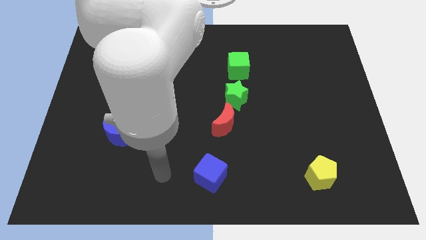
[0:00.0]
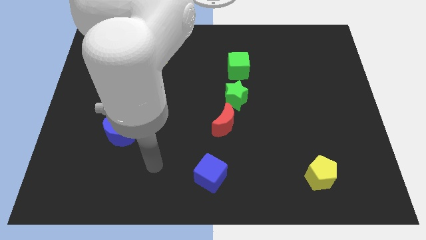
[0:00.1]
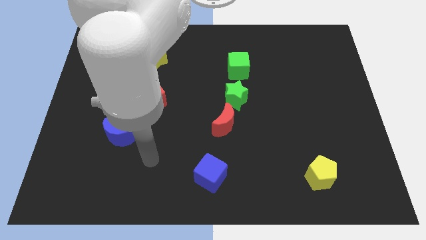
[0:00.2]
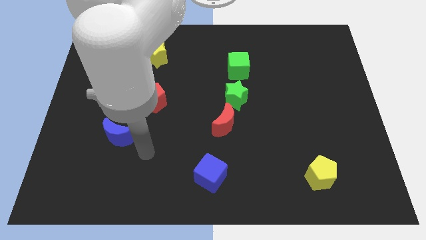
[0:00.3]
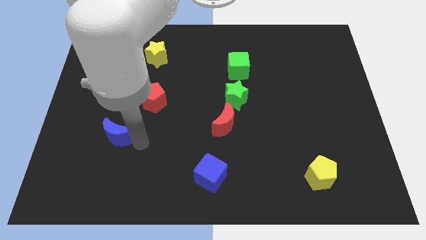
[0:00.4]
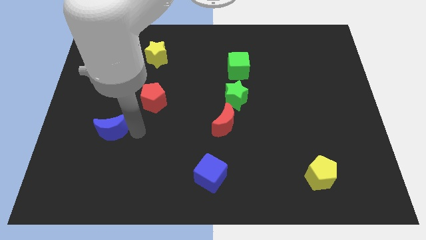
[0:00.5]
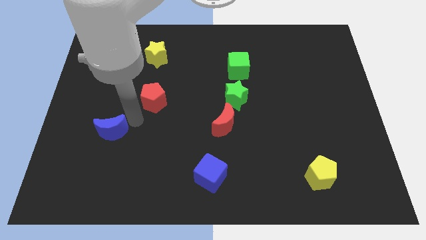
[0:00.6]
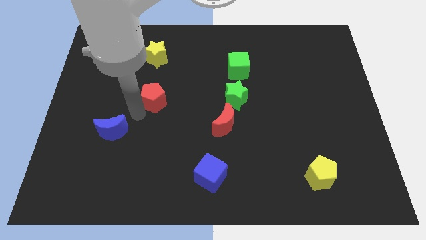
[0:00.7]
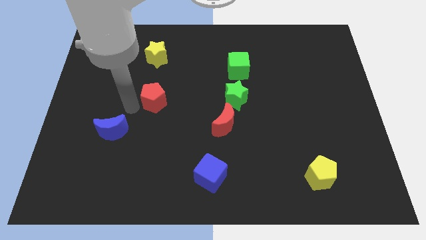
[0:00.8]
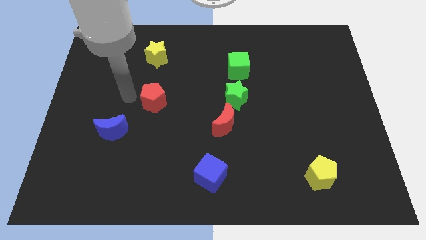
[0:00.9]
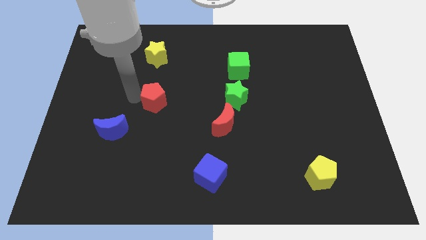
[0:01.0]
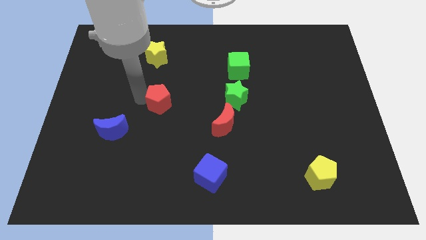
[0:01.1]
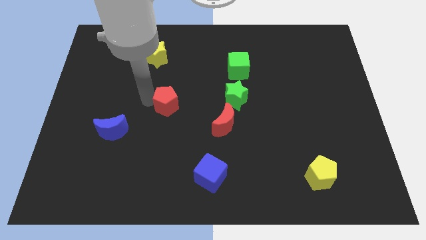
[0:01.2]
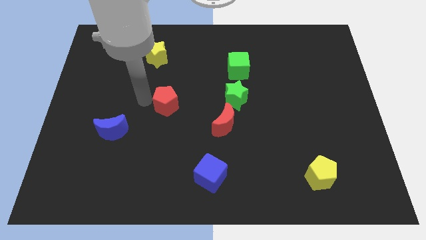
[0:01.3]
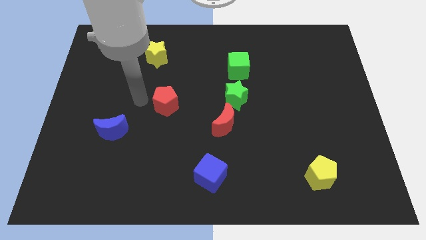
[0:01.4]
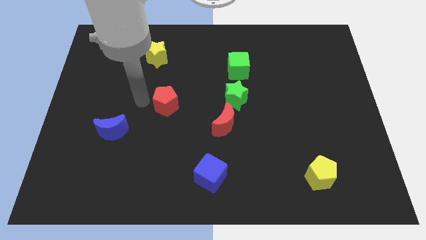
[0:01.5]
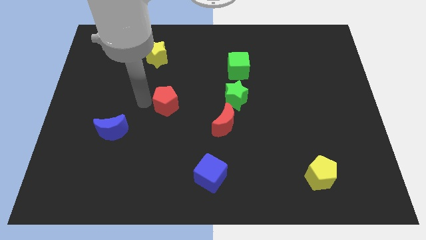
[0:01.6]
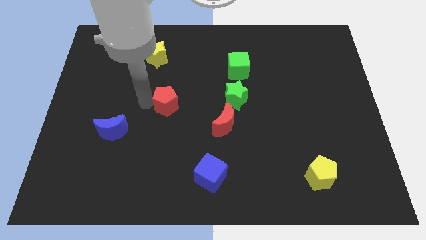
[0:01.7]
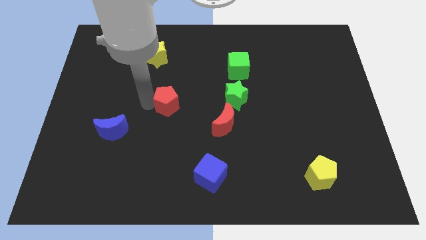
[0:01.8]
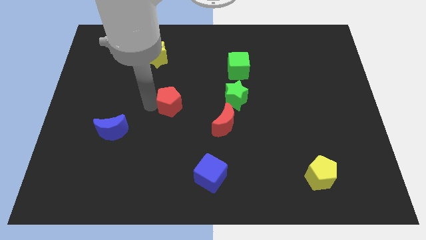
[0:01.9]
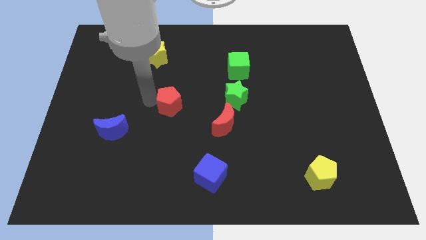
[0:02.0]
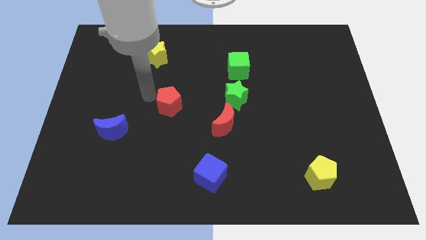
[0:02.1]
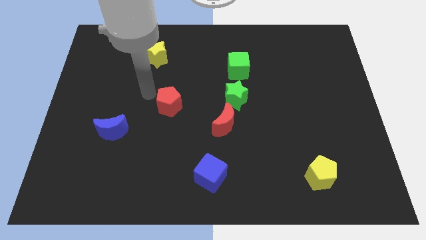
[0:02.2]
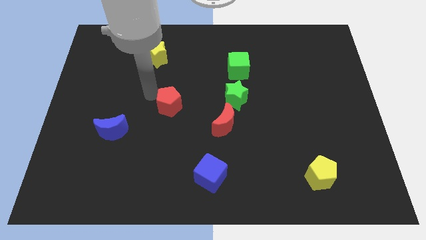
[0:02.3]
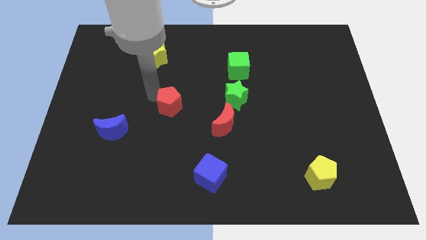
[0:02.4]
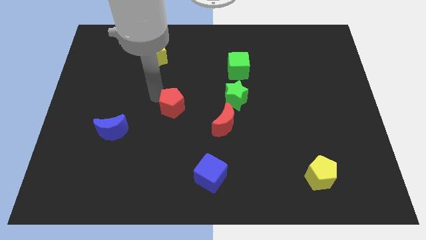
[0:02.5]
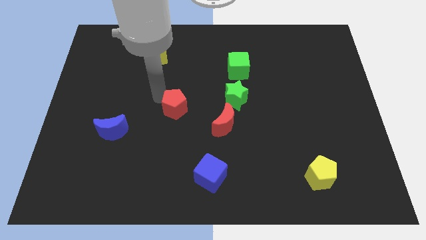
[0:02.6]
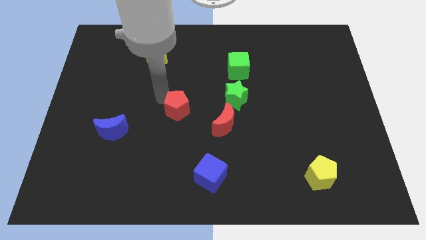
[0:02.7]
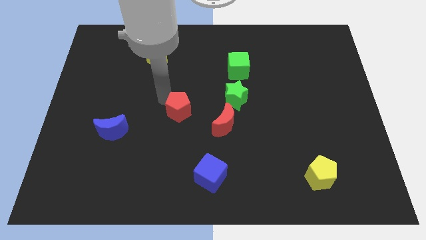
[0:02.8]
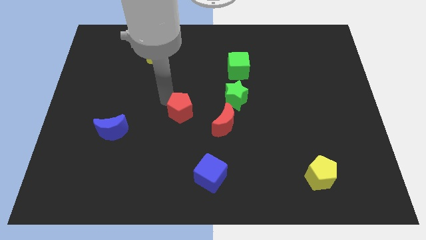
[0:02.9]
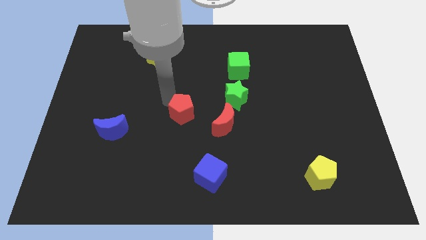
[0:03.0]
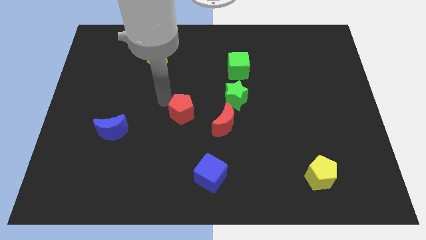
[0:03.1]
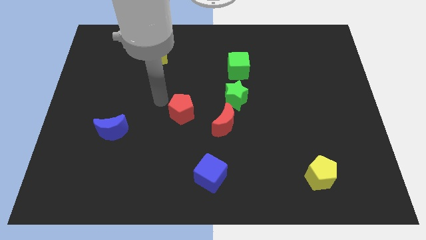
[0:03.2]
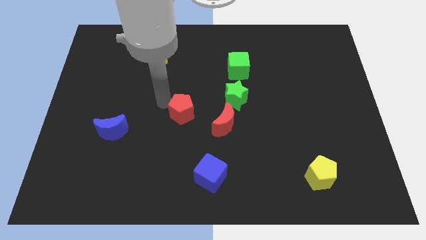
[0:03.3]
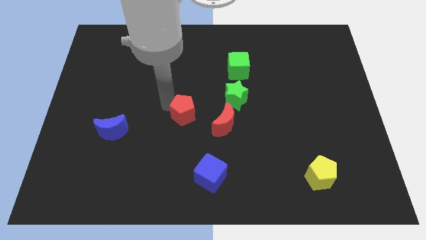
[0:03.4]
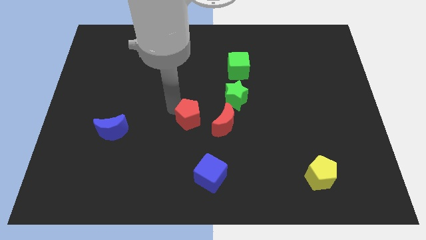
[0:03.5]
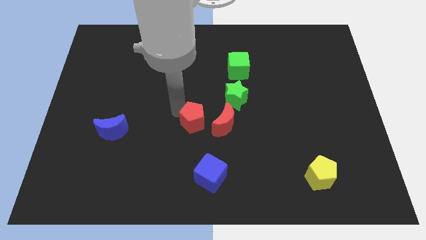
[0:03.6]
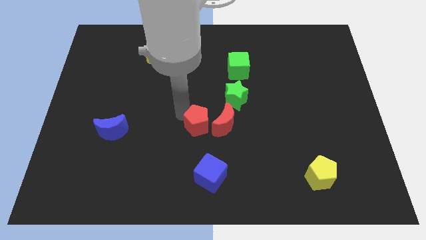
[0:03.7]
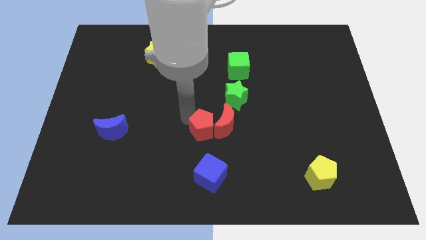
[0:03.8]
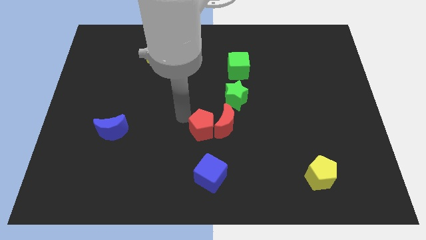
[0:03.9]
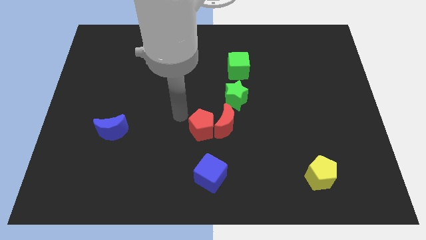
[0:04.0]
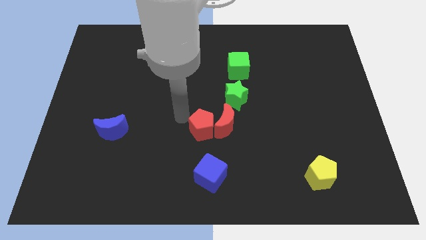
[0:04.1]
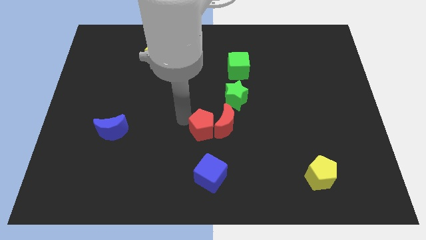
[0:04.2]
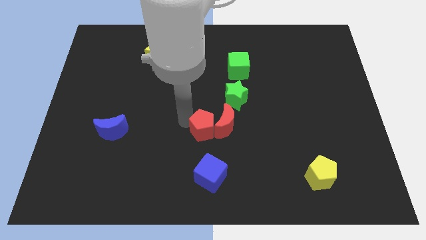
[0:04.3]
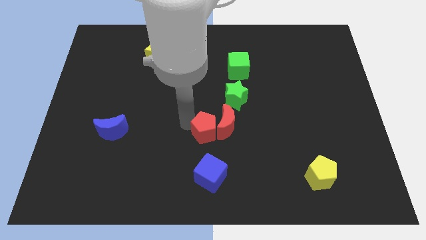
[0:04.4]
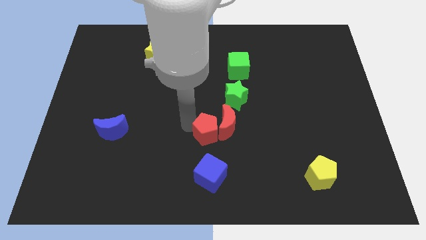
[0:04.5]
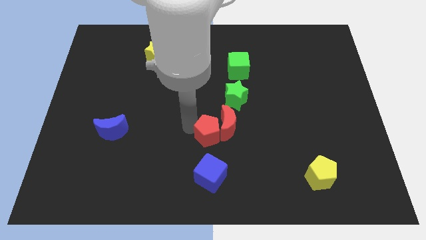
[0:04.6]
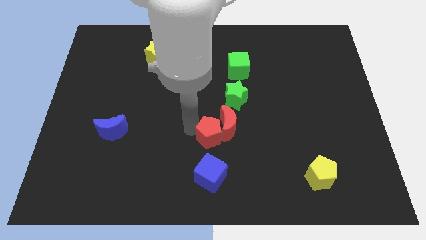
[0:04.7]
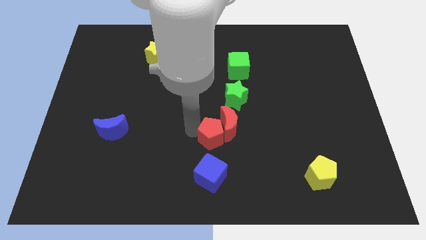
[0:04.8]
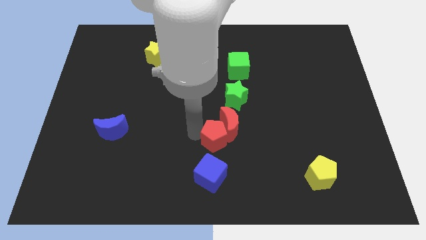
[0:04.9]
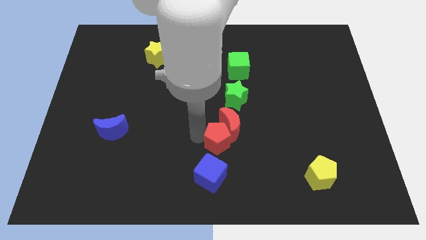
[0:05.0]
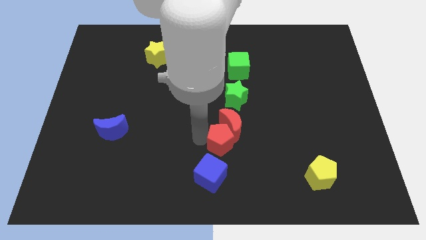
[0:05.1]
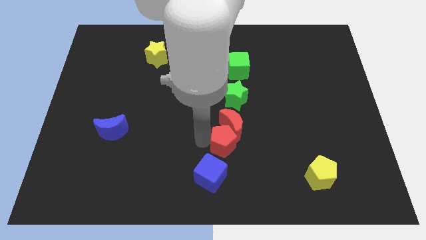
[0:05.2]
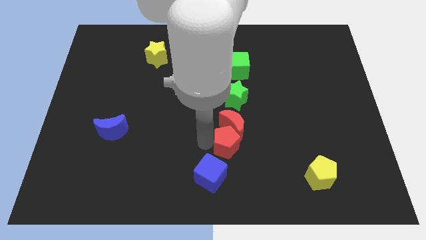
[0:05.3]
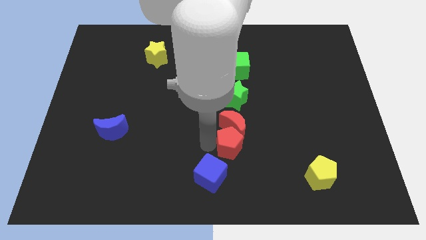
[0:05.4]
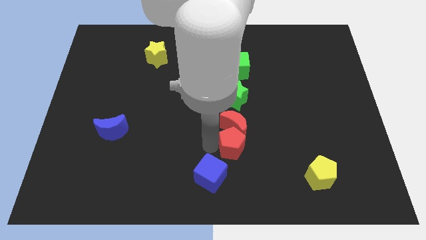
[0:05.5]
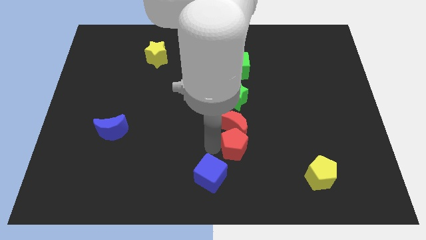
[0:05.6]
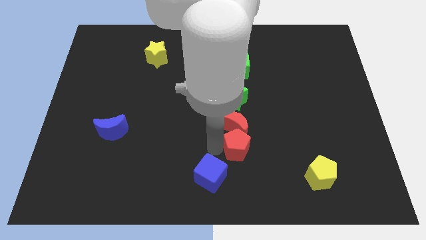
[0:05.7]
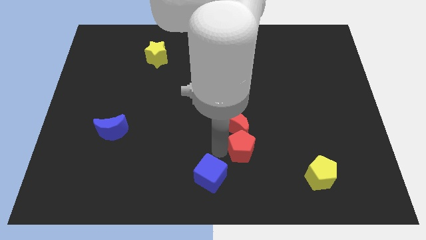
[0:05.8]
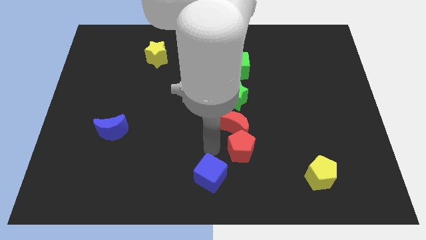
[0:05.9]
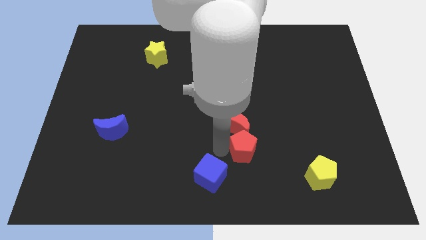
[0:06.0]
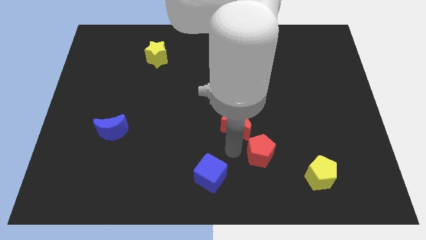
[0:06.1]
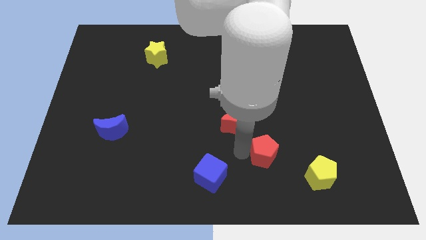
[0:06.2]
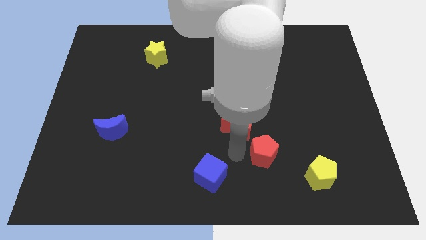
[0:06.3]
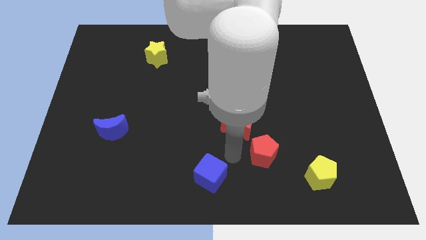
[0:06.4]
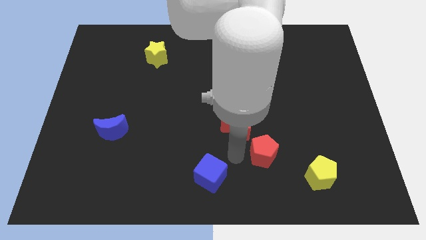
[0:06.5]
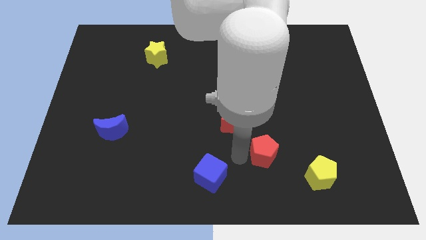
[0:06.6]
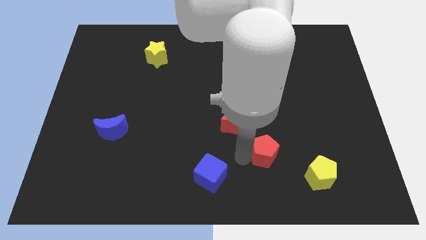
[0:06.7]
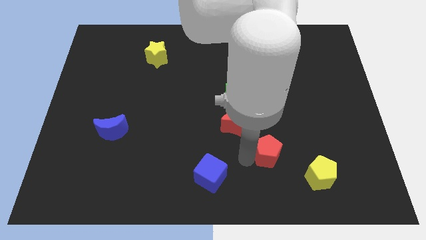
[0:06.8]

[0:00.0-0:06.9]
move the red pentagon to the top left of the yellow pentagon
